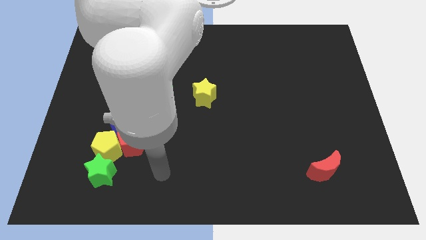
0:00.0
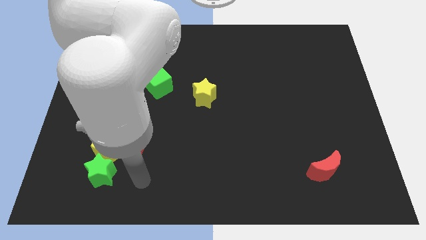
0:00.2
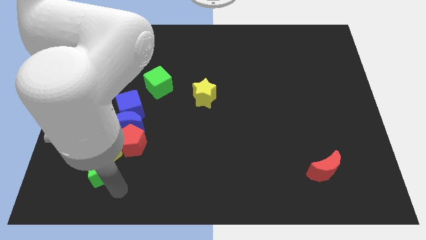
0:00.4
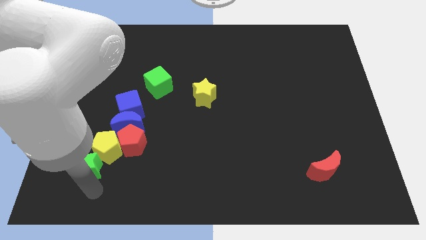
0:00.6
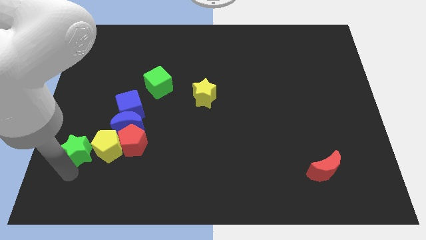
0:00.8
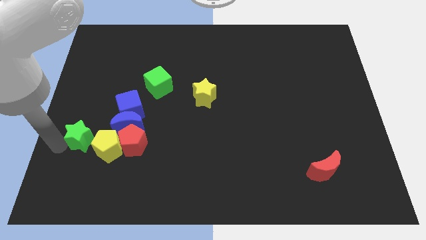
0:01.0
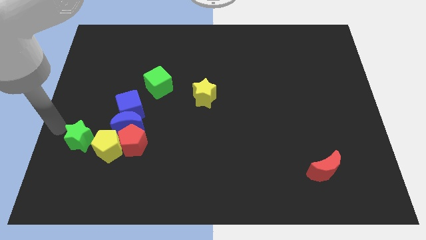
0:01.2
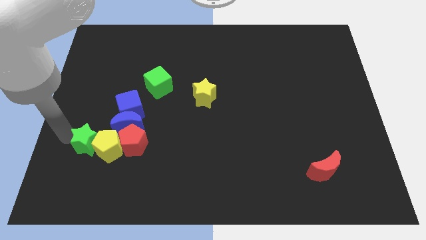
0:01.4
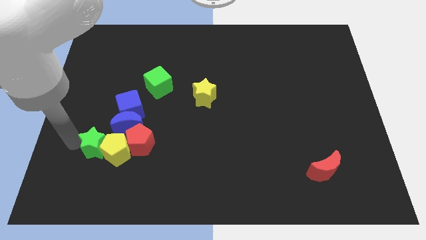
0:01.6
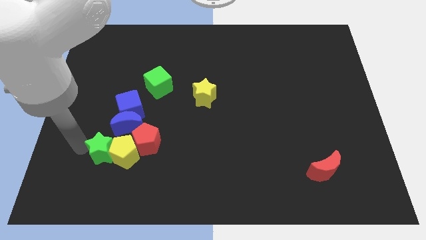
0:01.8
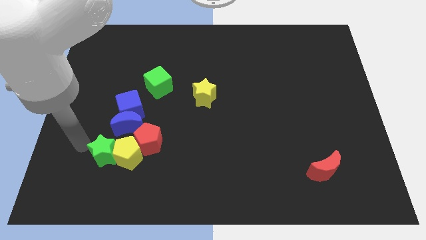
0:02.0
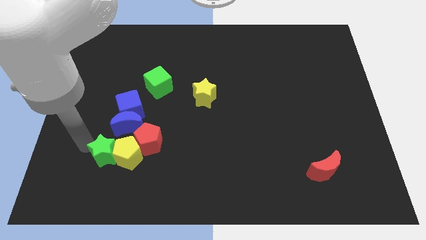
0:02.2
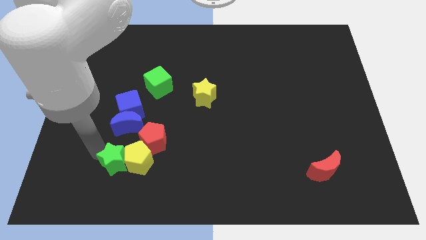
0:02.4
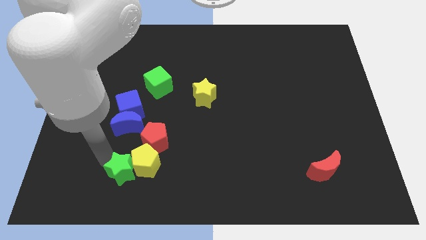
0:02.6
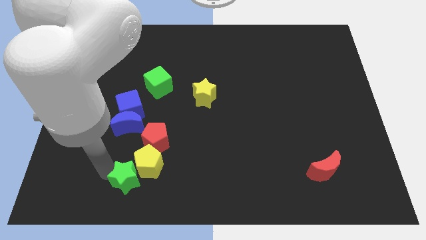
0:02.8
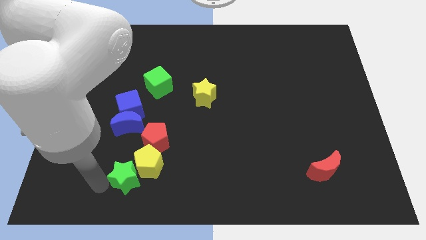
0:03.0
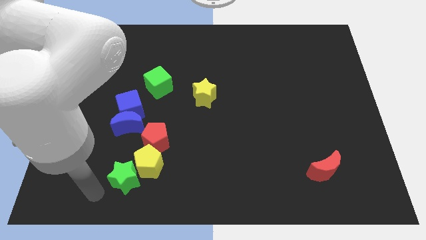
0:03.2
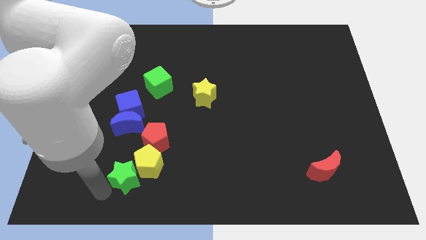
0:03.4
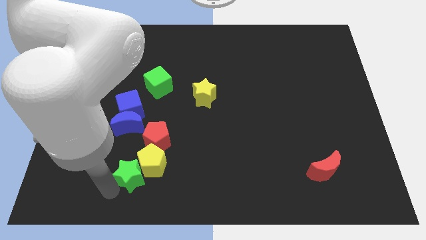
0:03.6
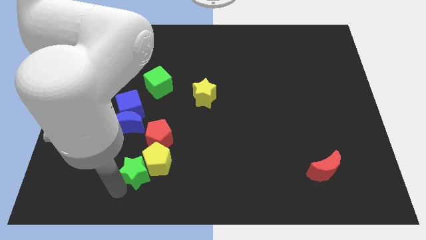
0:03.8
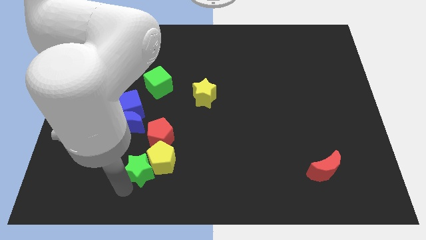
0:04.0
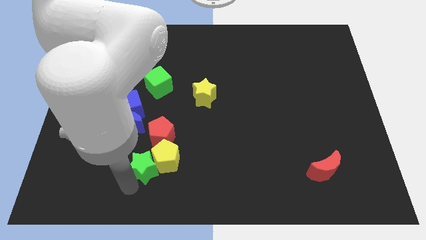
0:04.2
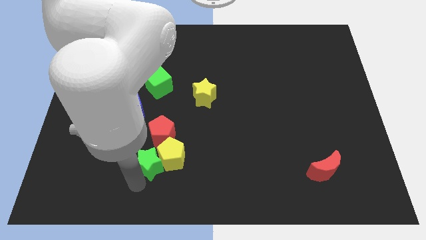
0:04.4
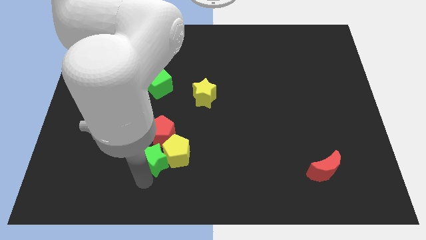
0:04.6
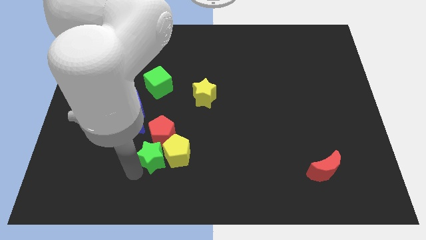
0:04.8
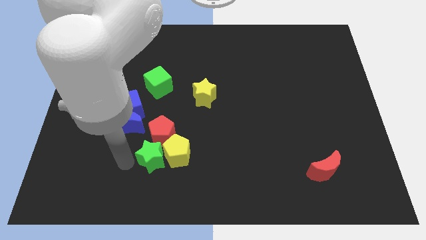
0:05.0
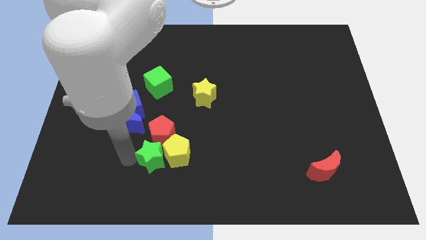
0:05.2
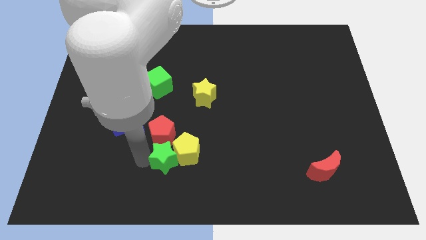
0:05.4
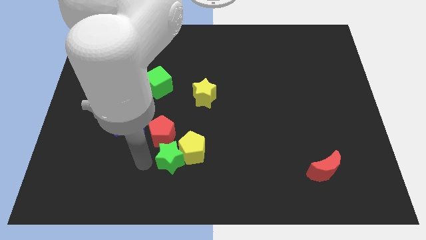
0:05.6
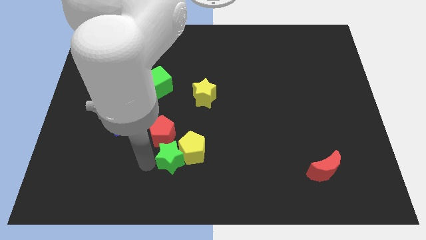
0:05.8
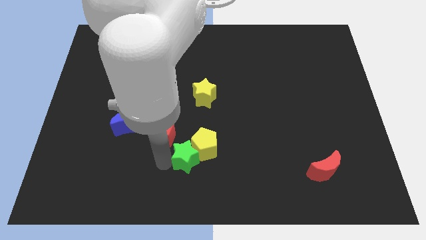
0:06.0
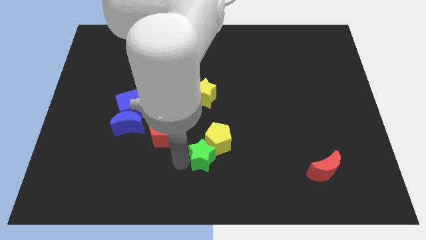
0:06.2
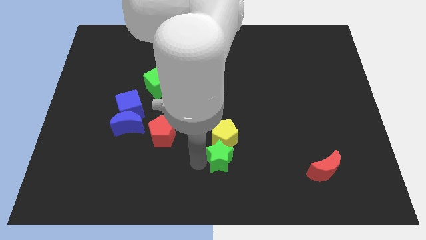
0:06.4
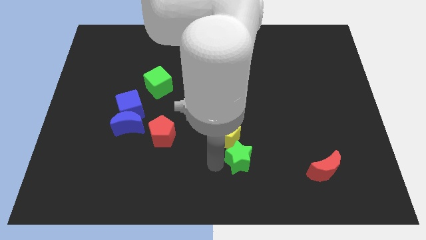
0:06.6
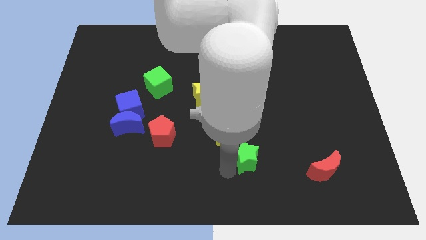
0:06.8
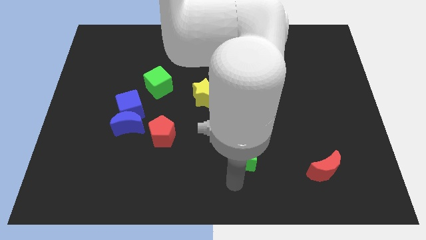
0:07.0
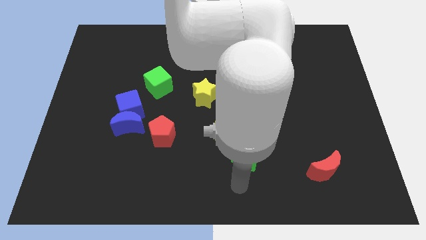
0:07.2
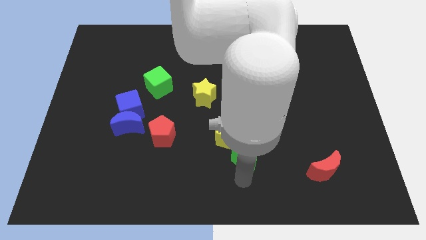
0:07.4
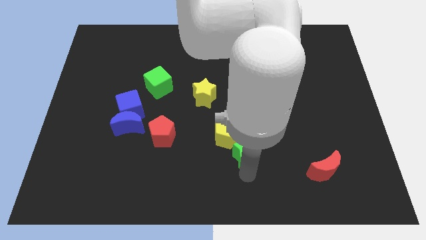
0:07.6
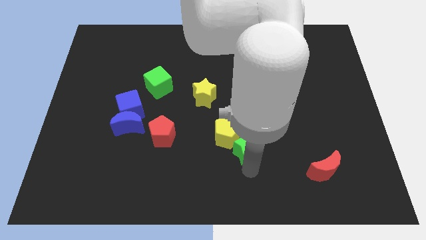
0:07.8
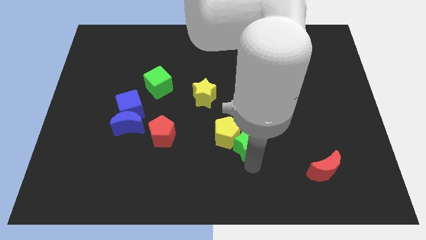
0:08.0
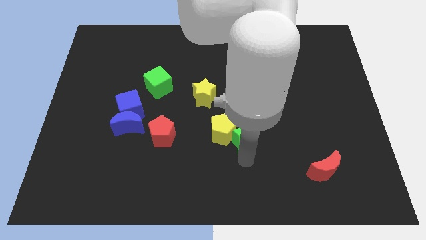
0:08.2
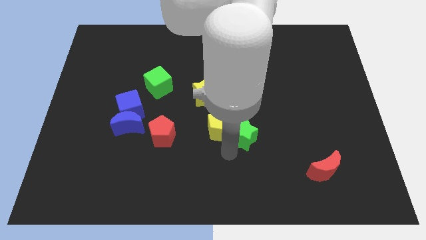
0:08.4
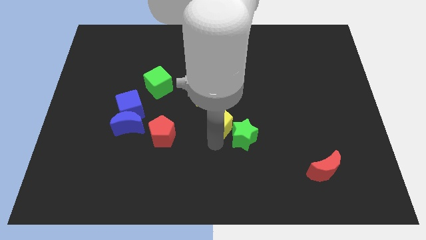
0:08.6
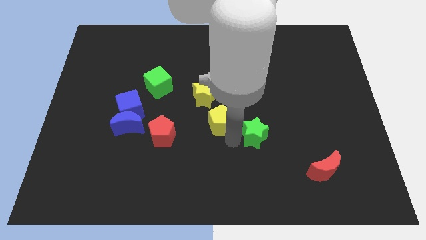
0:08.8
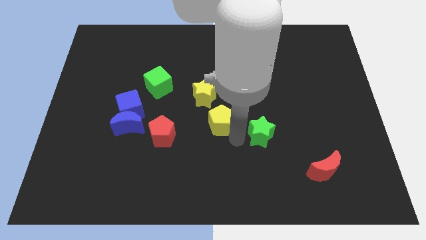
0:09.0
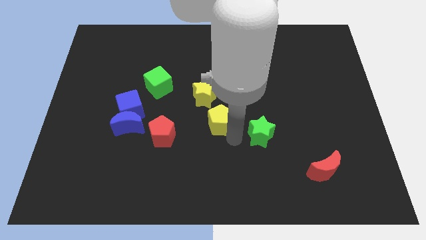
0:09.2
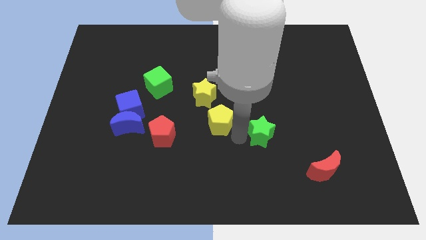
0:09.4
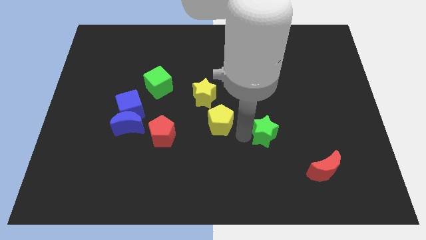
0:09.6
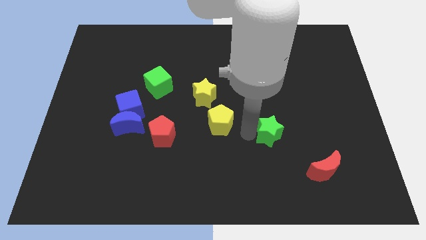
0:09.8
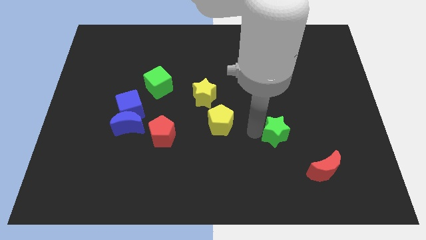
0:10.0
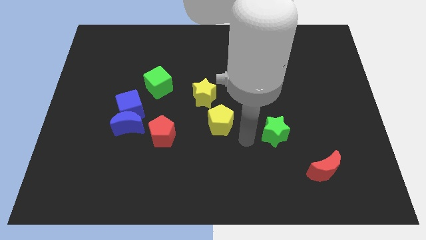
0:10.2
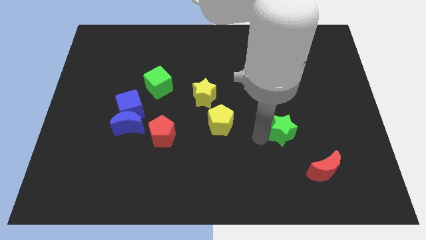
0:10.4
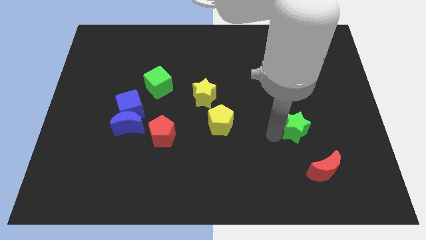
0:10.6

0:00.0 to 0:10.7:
slide the green star above the red moon

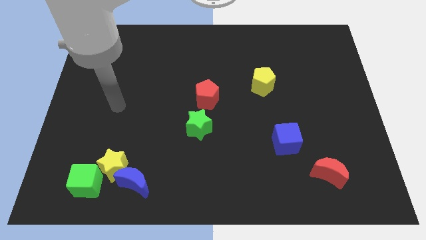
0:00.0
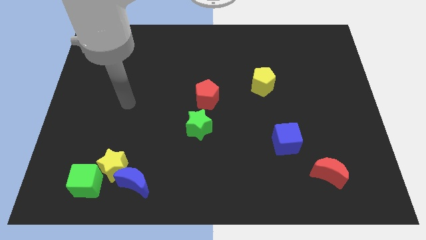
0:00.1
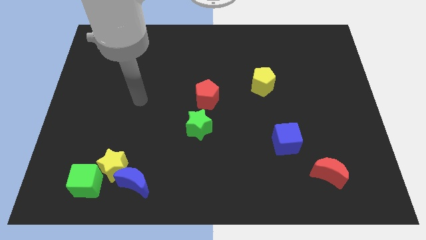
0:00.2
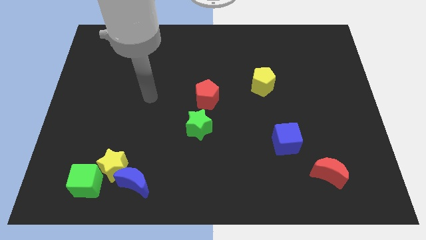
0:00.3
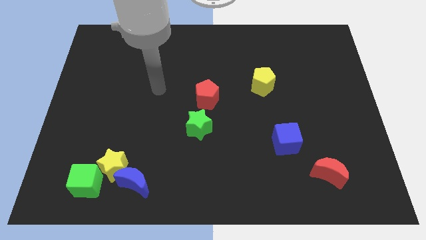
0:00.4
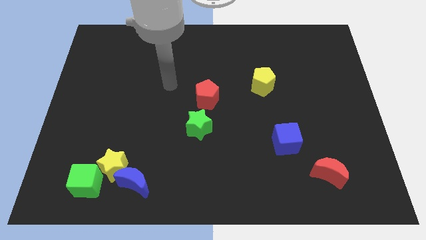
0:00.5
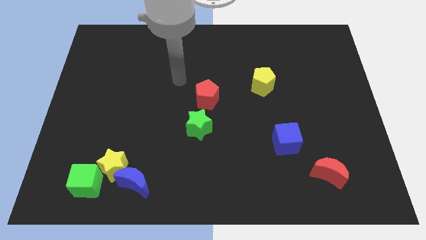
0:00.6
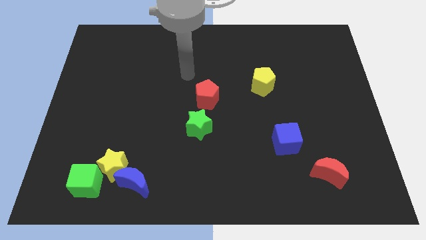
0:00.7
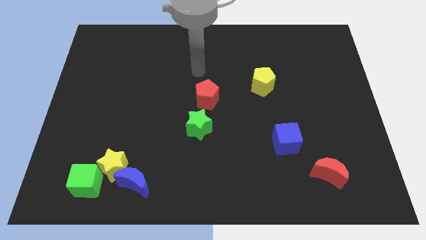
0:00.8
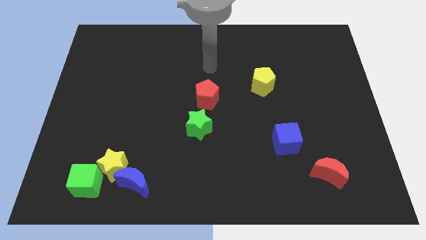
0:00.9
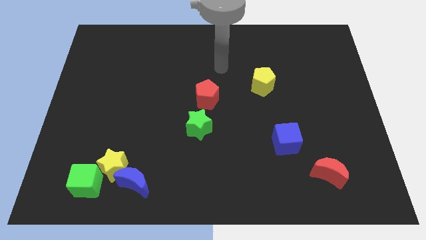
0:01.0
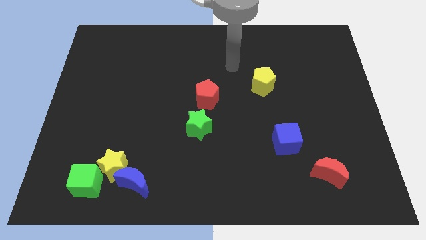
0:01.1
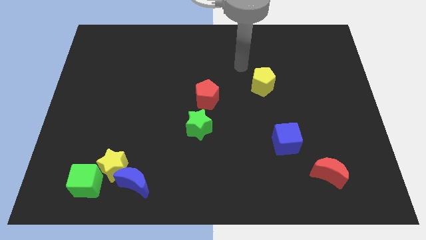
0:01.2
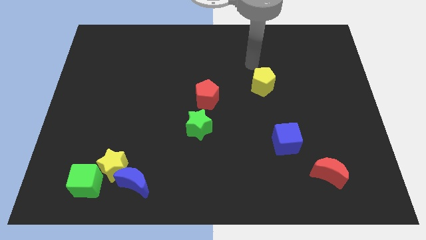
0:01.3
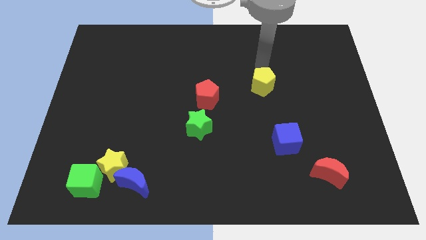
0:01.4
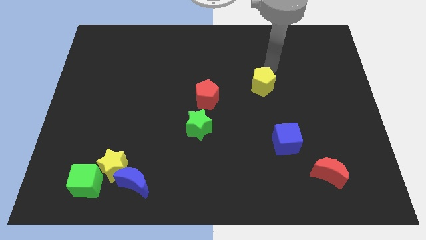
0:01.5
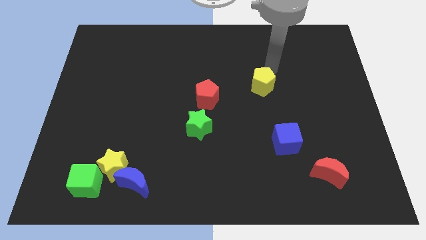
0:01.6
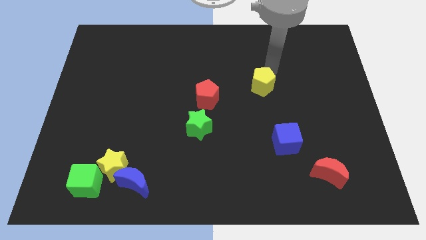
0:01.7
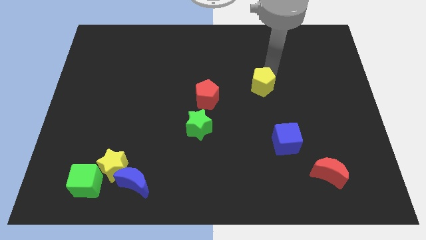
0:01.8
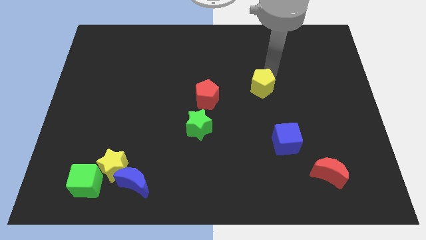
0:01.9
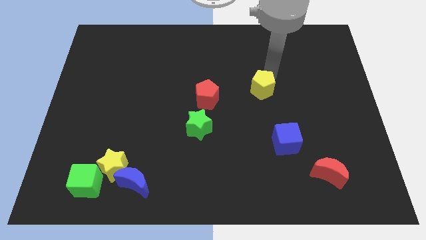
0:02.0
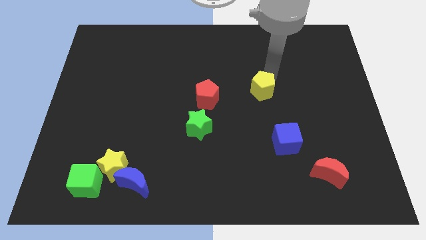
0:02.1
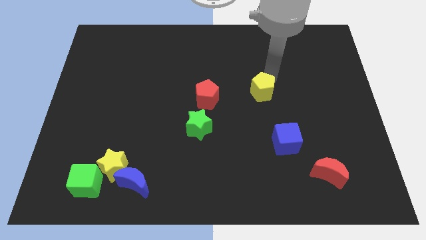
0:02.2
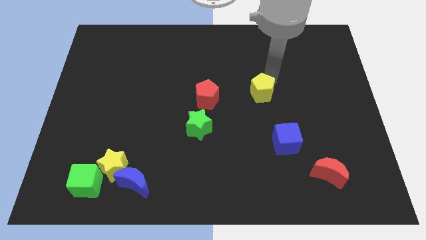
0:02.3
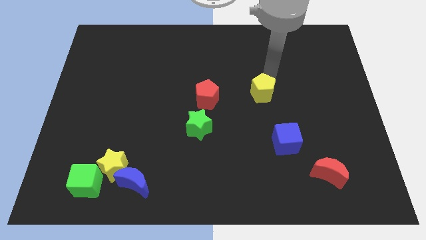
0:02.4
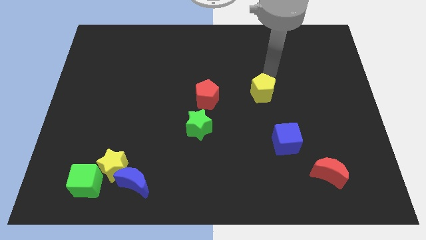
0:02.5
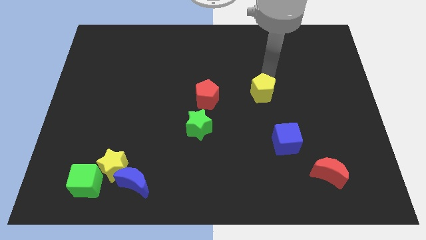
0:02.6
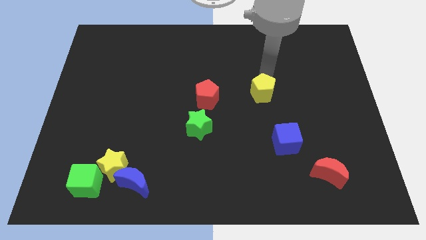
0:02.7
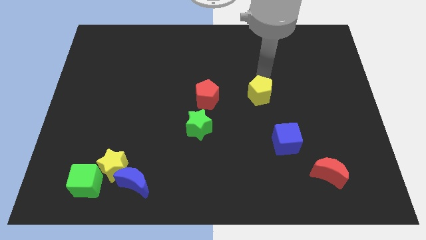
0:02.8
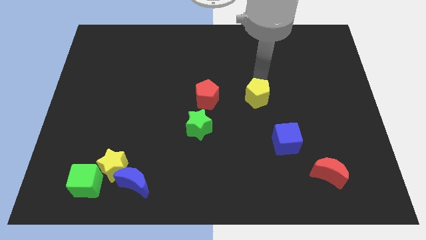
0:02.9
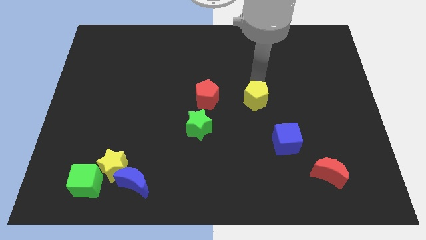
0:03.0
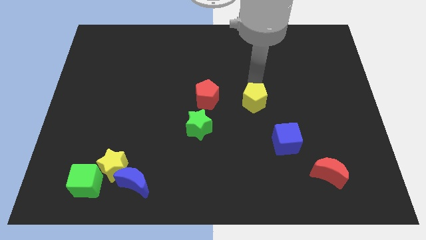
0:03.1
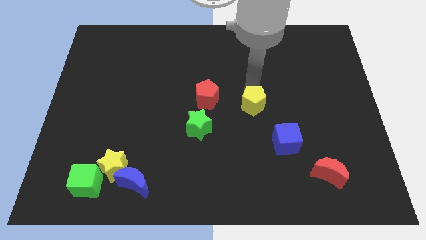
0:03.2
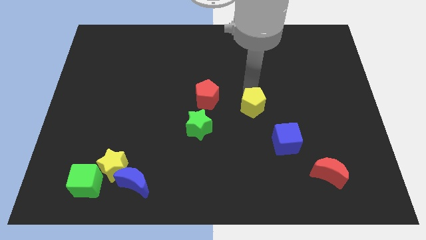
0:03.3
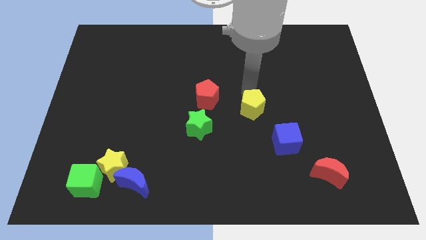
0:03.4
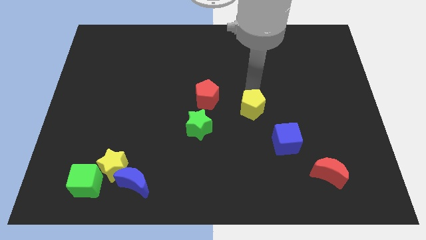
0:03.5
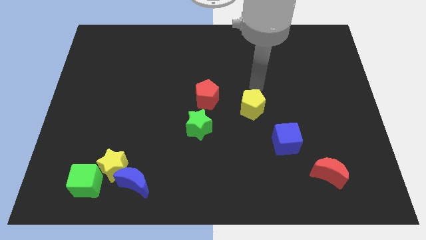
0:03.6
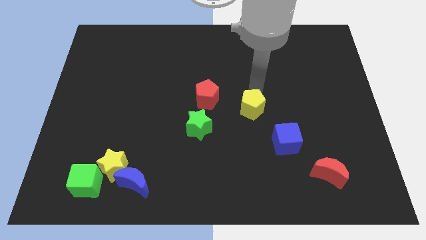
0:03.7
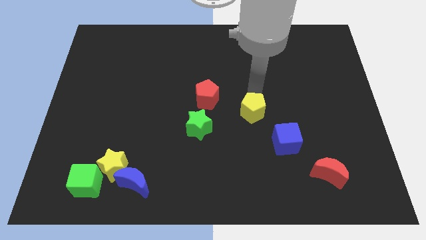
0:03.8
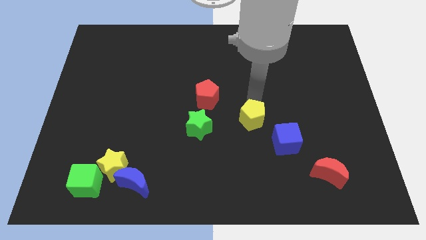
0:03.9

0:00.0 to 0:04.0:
put the yellow pentagon just right of the green star
